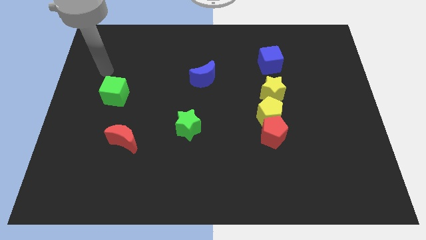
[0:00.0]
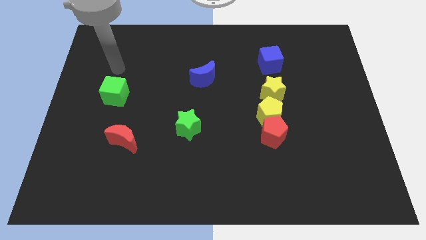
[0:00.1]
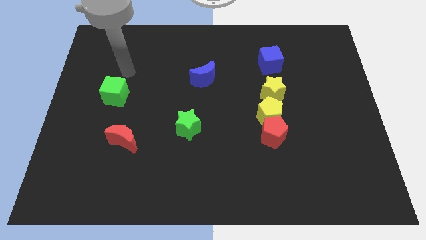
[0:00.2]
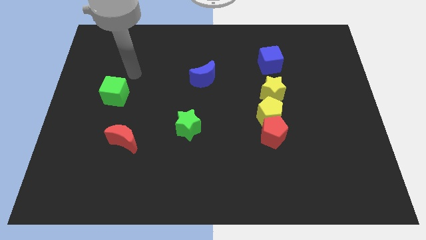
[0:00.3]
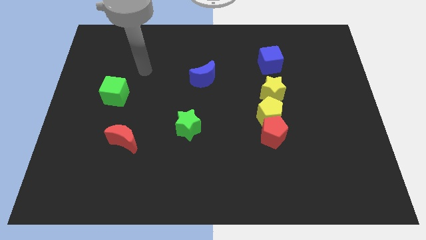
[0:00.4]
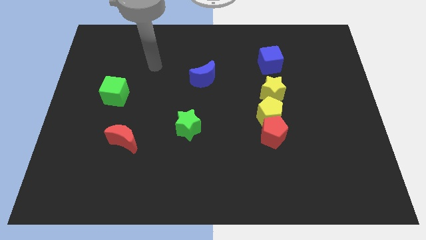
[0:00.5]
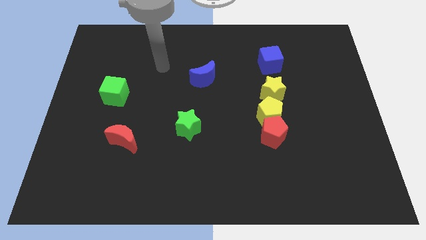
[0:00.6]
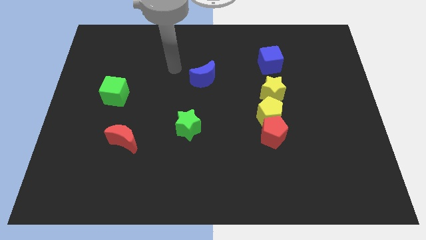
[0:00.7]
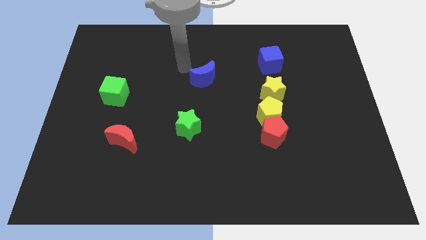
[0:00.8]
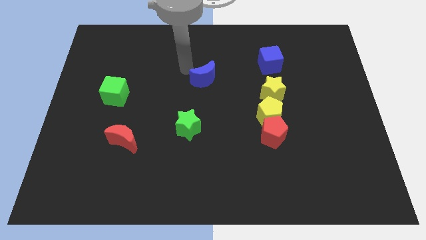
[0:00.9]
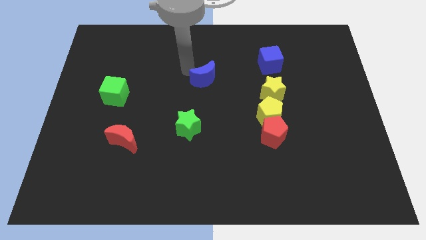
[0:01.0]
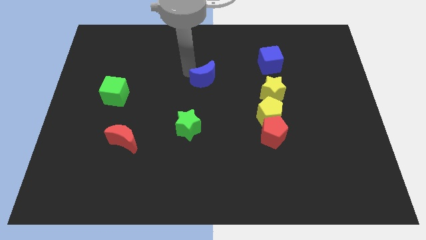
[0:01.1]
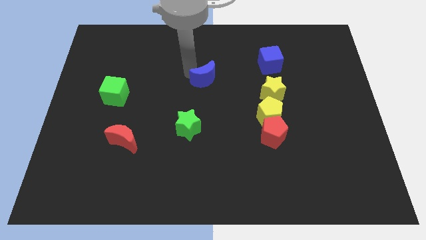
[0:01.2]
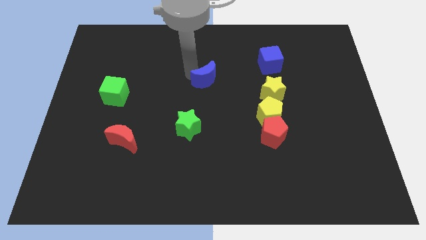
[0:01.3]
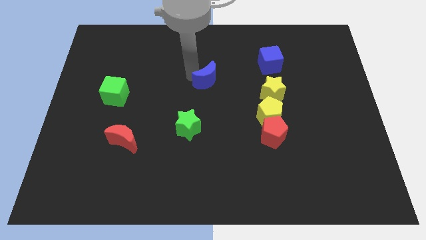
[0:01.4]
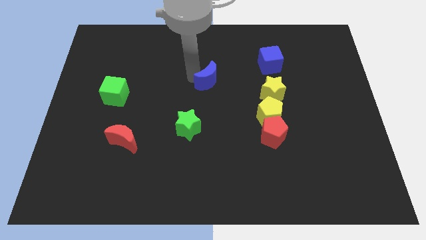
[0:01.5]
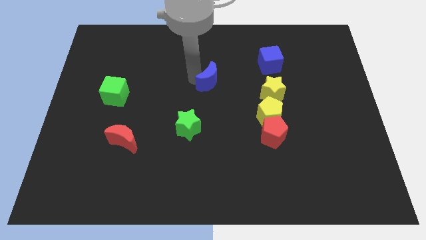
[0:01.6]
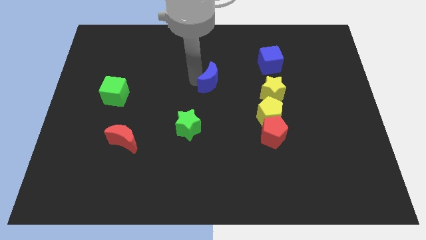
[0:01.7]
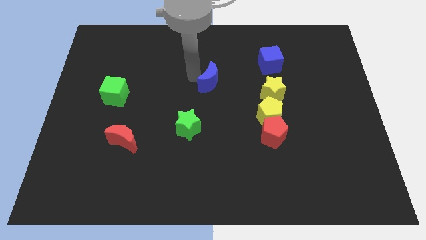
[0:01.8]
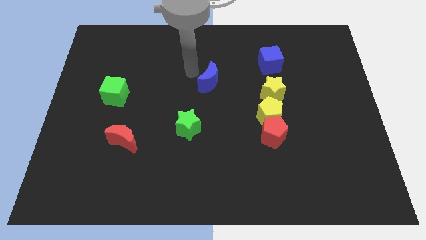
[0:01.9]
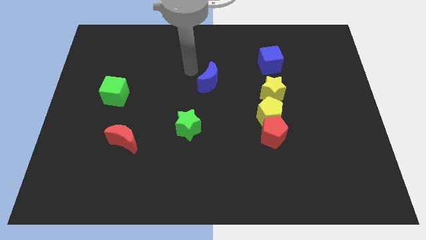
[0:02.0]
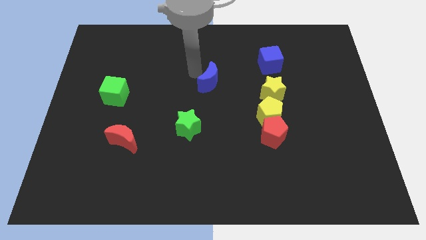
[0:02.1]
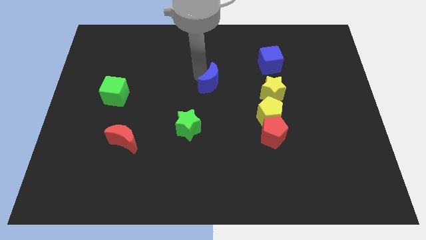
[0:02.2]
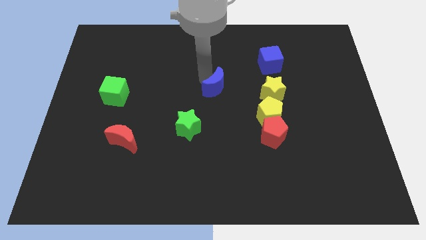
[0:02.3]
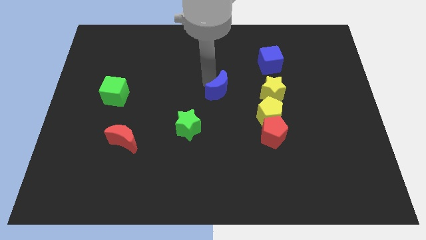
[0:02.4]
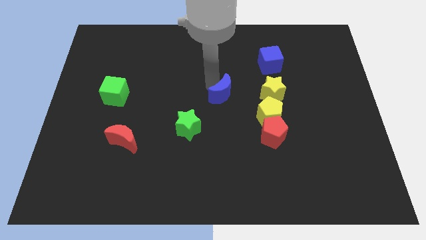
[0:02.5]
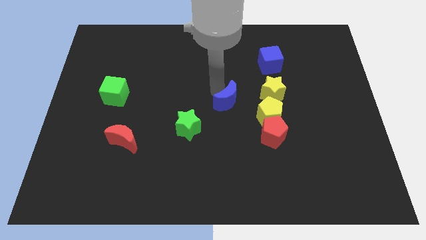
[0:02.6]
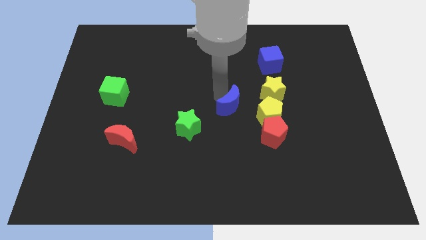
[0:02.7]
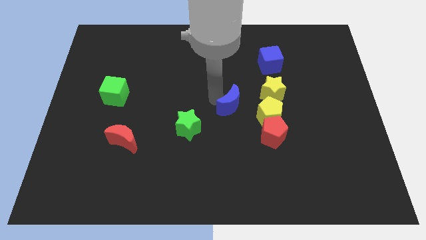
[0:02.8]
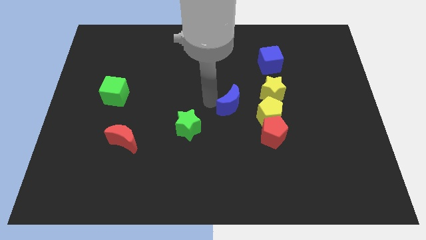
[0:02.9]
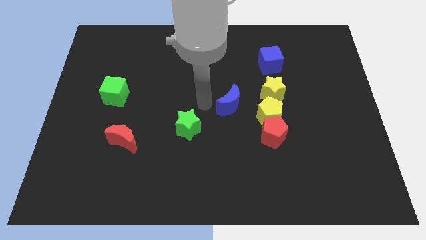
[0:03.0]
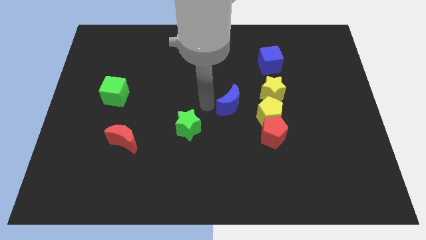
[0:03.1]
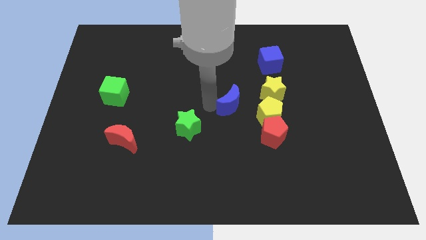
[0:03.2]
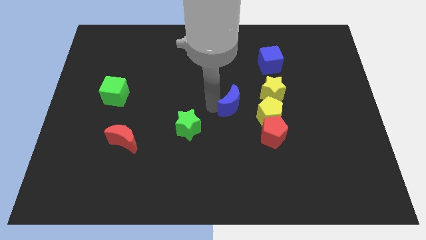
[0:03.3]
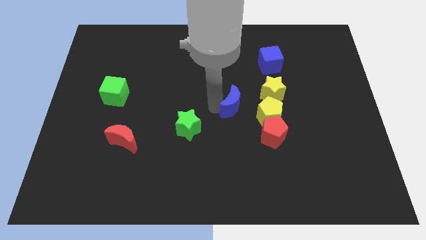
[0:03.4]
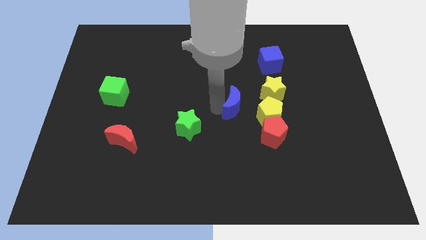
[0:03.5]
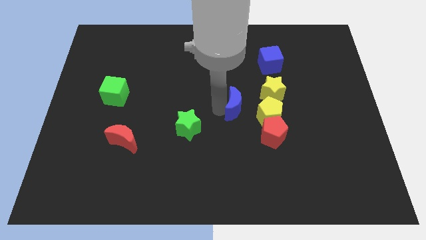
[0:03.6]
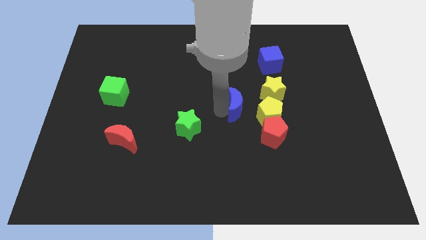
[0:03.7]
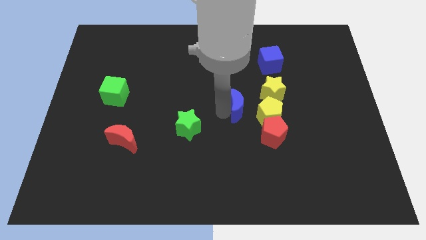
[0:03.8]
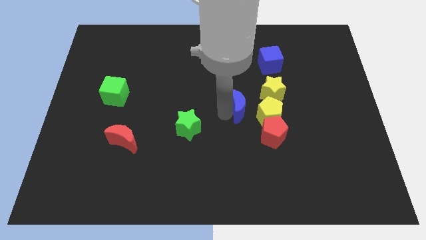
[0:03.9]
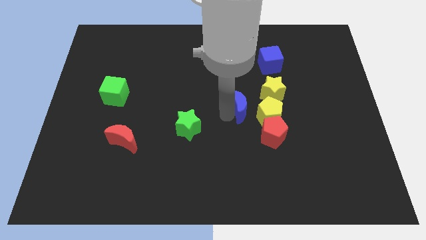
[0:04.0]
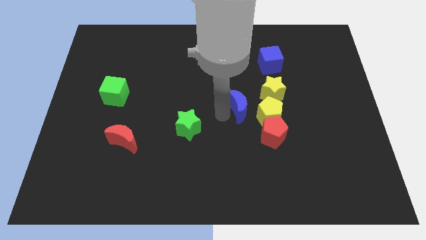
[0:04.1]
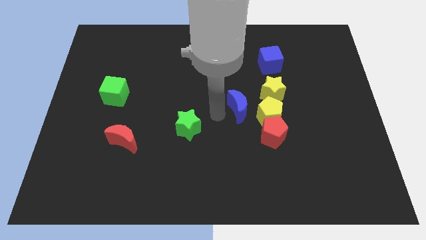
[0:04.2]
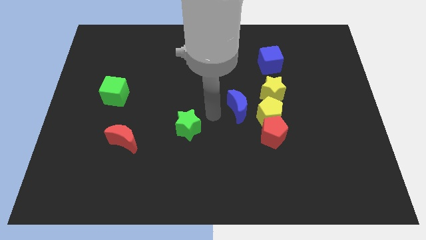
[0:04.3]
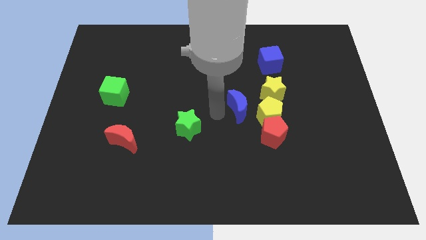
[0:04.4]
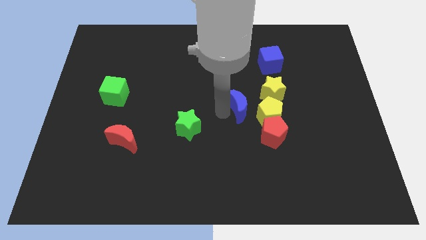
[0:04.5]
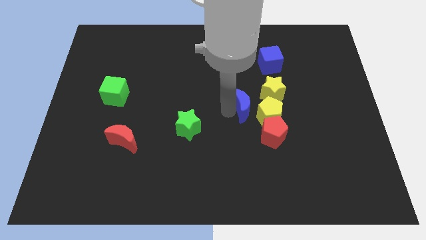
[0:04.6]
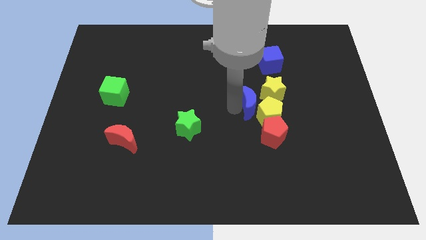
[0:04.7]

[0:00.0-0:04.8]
put the blue moon to the yellow pentagon

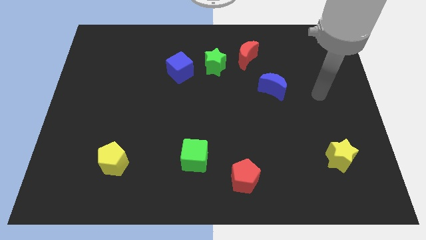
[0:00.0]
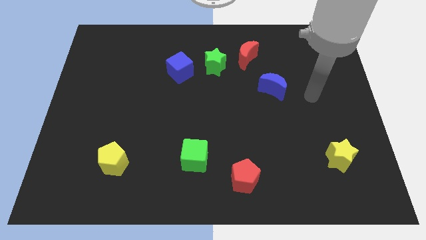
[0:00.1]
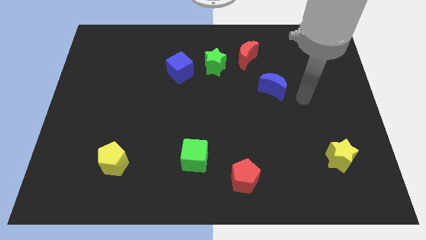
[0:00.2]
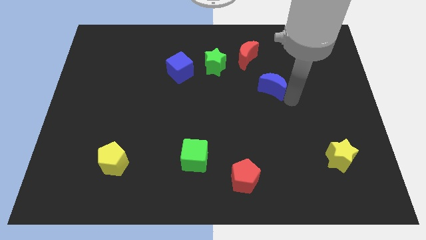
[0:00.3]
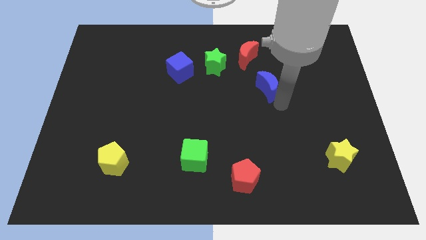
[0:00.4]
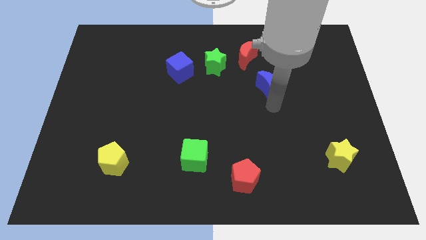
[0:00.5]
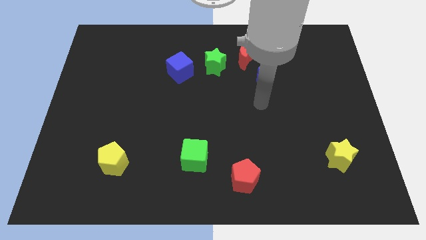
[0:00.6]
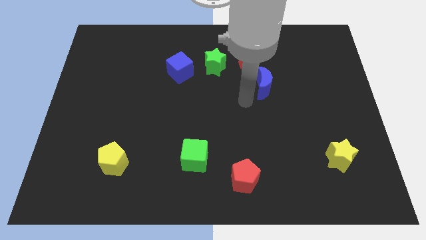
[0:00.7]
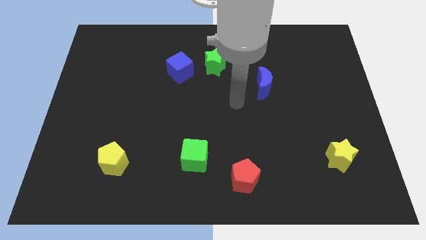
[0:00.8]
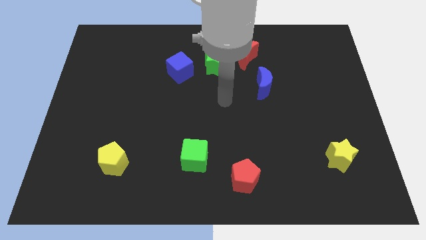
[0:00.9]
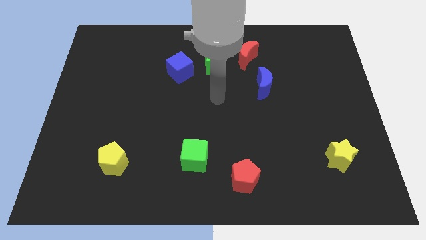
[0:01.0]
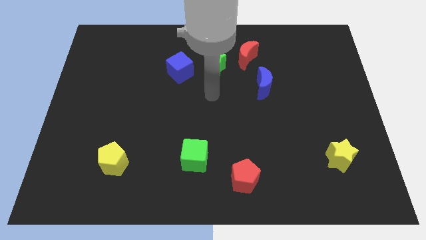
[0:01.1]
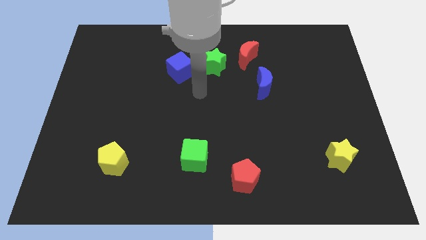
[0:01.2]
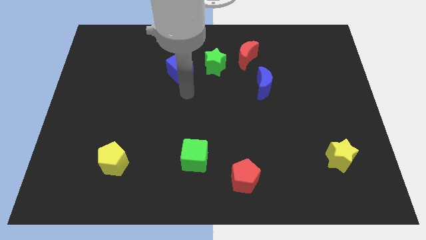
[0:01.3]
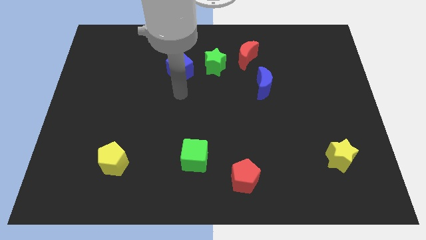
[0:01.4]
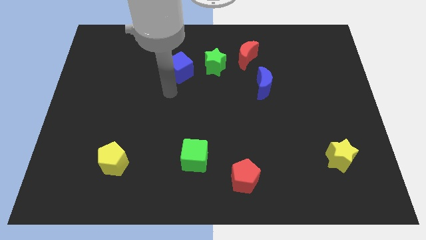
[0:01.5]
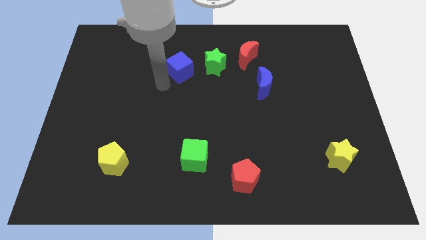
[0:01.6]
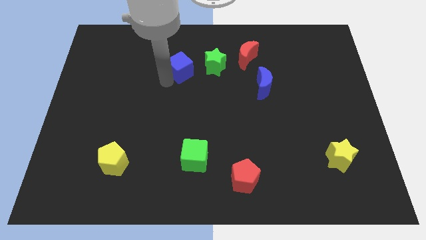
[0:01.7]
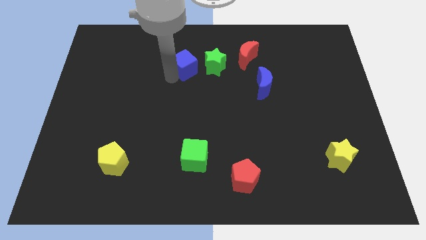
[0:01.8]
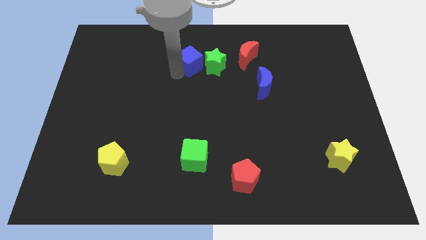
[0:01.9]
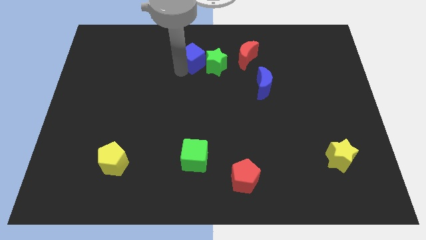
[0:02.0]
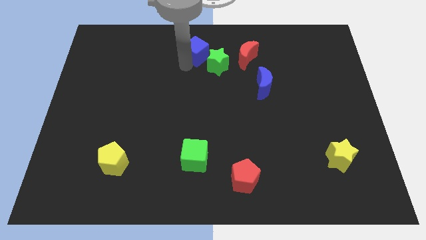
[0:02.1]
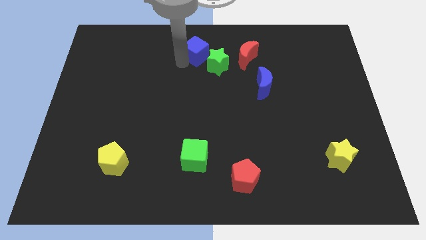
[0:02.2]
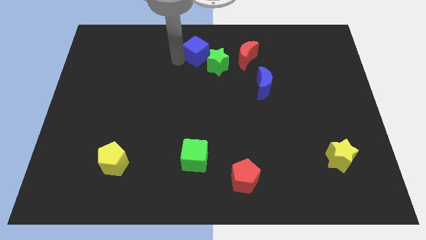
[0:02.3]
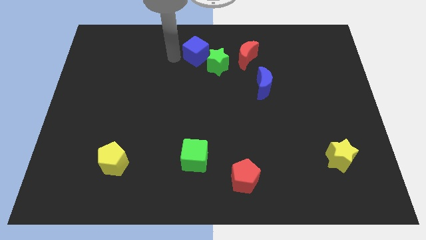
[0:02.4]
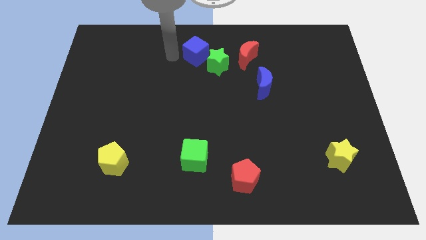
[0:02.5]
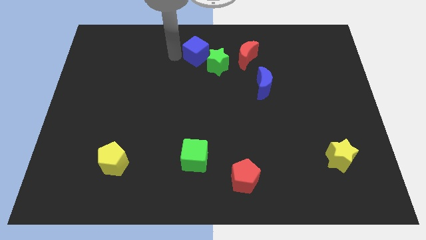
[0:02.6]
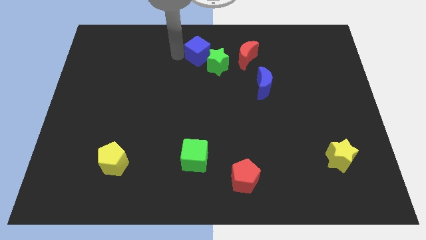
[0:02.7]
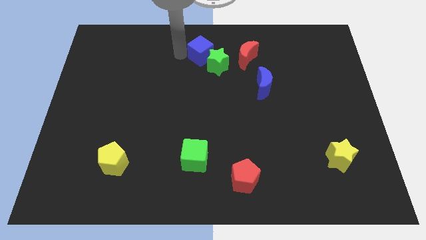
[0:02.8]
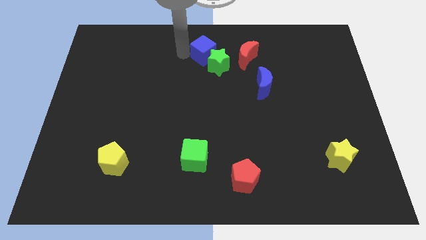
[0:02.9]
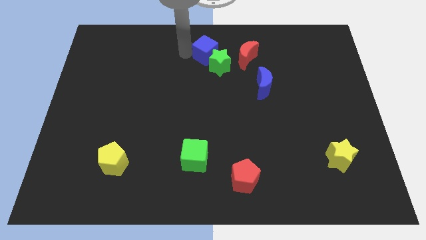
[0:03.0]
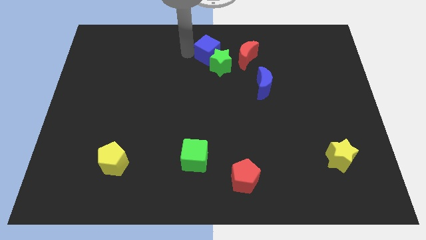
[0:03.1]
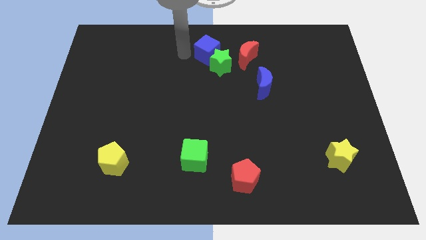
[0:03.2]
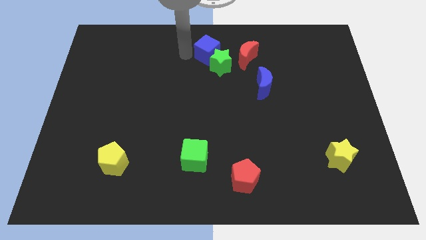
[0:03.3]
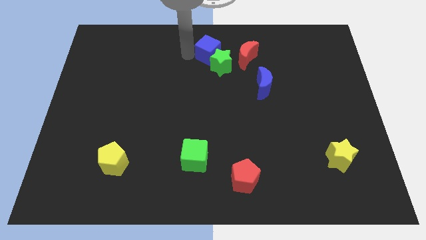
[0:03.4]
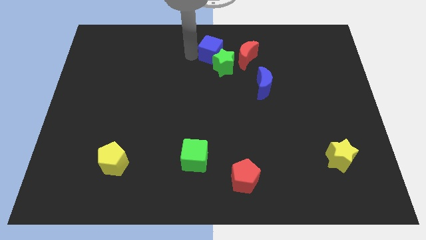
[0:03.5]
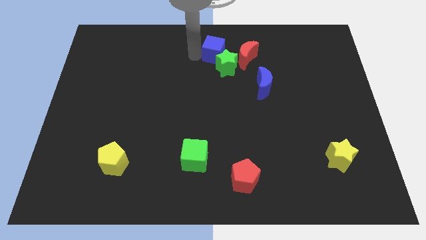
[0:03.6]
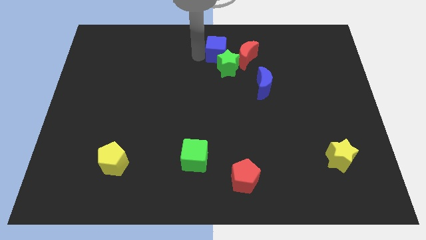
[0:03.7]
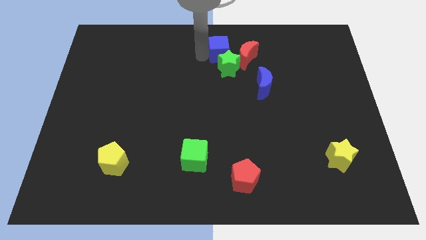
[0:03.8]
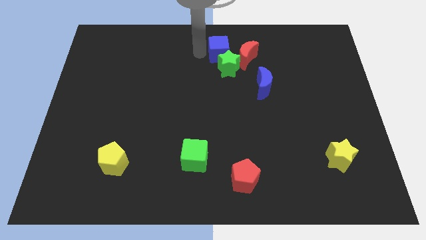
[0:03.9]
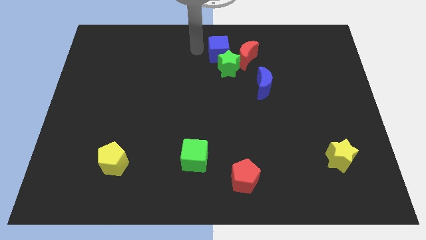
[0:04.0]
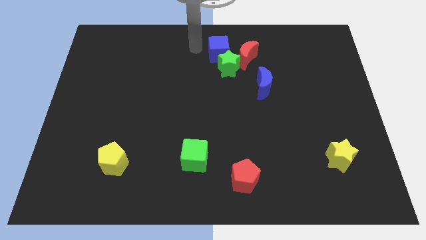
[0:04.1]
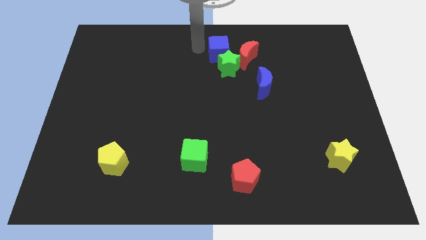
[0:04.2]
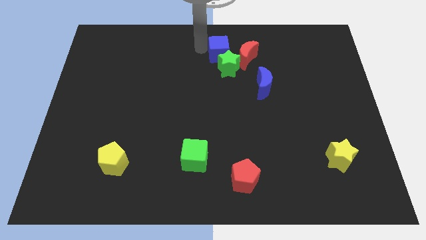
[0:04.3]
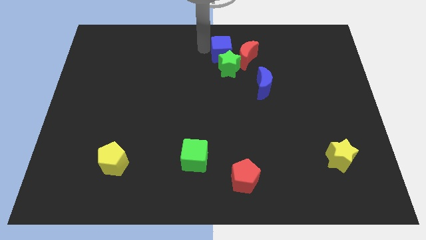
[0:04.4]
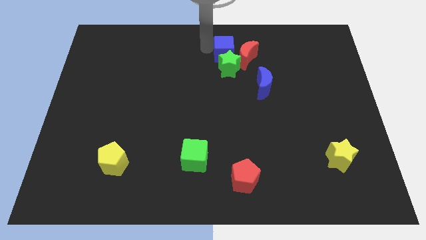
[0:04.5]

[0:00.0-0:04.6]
push the blue cube towards the red moon
